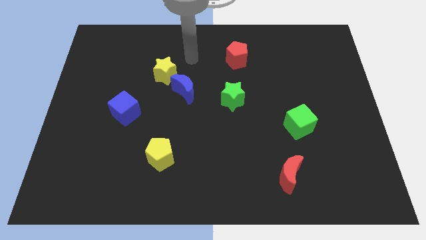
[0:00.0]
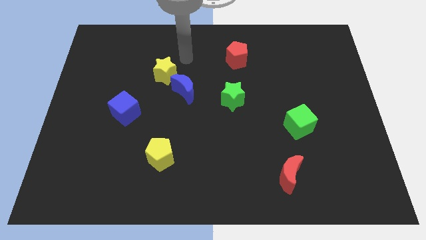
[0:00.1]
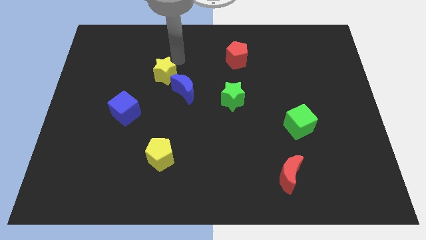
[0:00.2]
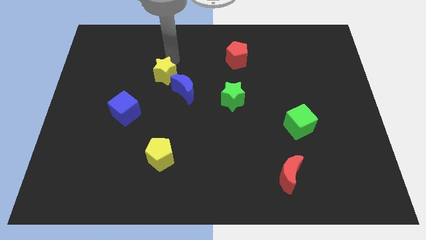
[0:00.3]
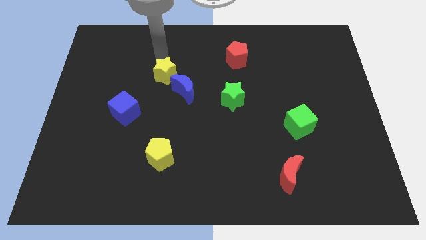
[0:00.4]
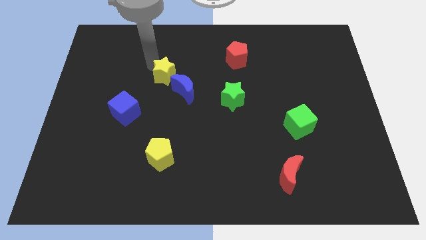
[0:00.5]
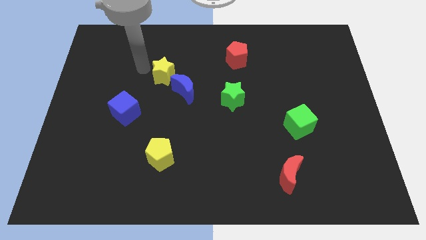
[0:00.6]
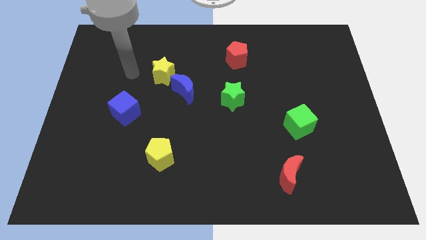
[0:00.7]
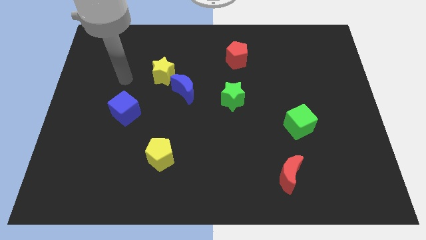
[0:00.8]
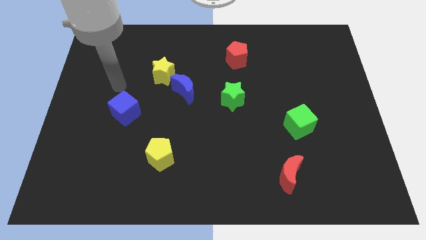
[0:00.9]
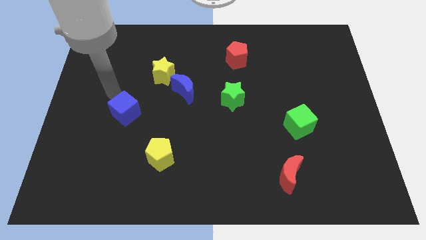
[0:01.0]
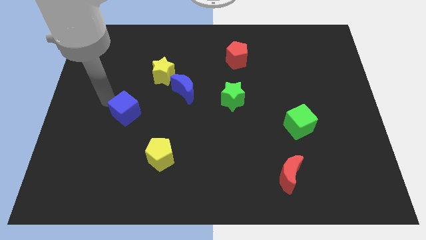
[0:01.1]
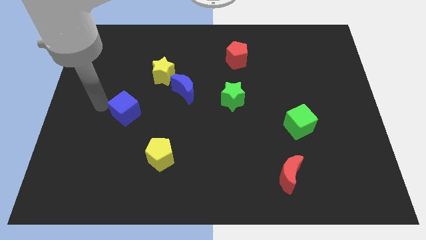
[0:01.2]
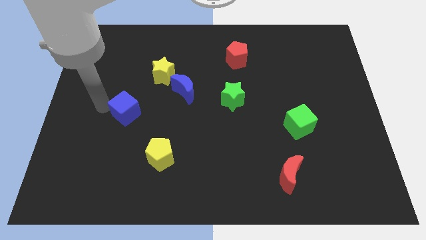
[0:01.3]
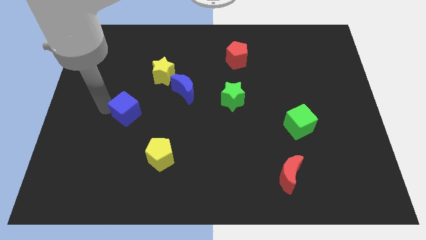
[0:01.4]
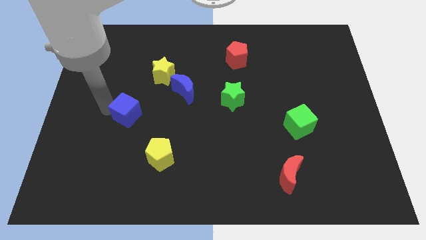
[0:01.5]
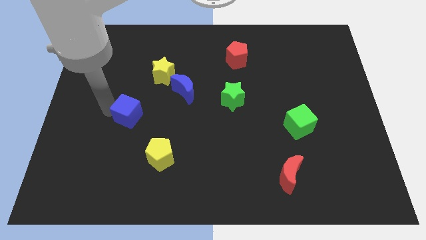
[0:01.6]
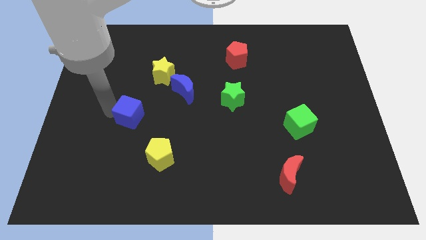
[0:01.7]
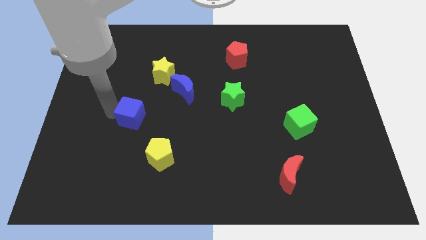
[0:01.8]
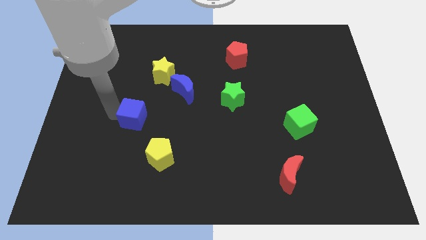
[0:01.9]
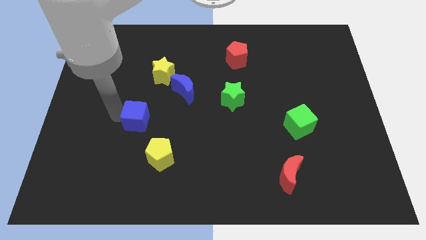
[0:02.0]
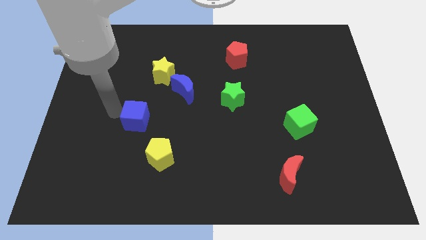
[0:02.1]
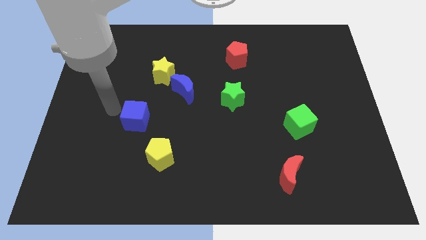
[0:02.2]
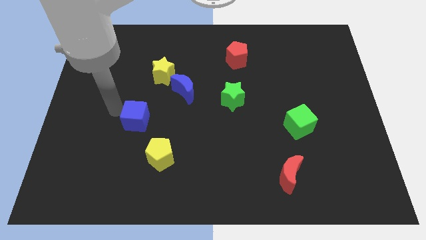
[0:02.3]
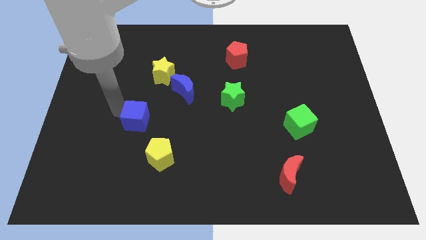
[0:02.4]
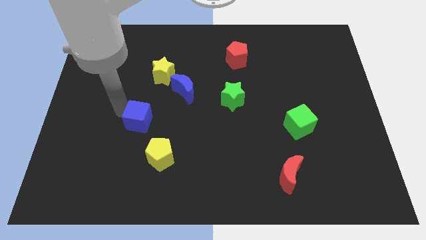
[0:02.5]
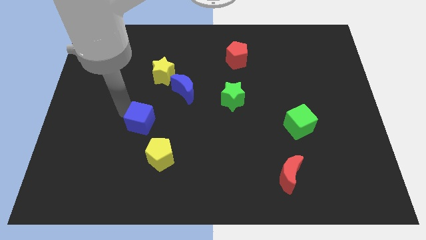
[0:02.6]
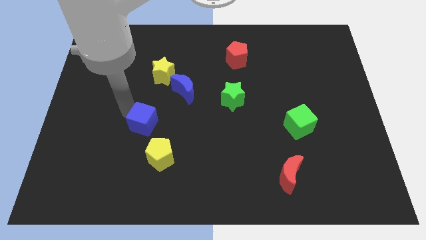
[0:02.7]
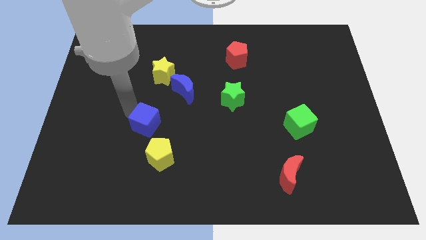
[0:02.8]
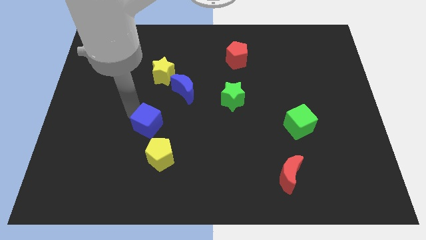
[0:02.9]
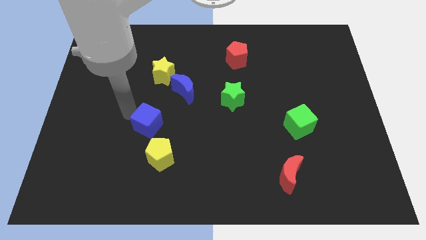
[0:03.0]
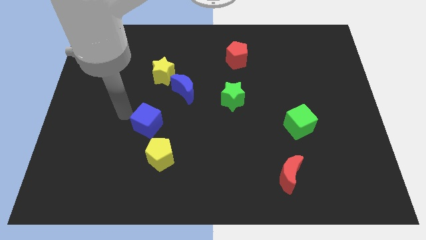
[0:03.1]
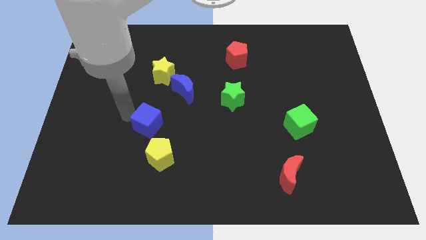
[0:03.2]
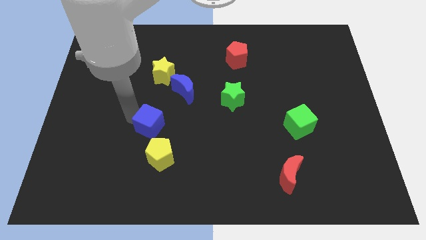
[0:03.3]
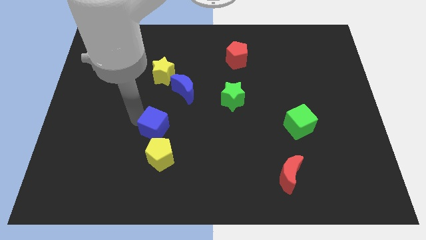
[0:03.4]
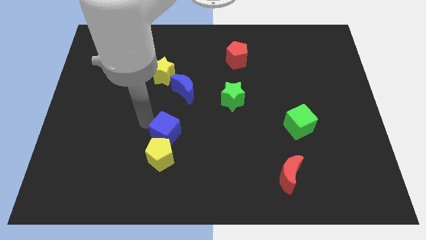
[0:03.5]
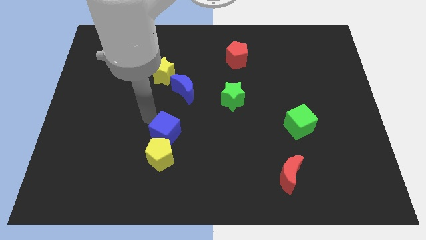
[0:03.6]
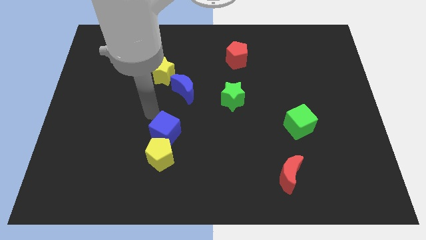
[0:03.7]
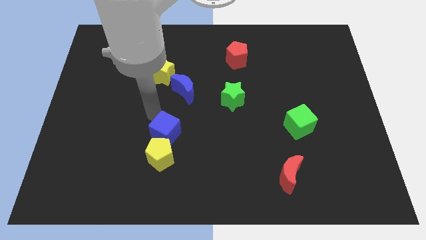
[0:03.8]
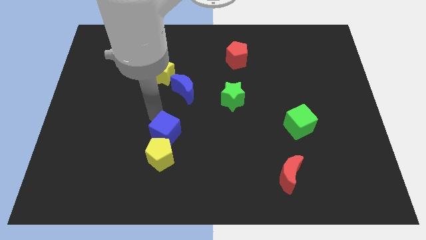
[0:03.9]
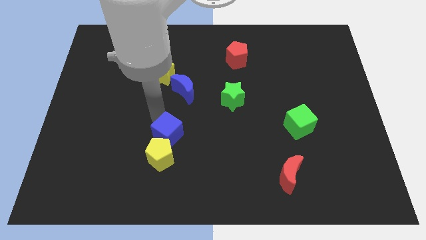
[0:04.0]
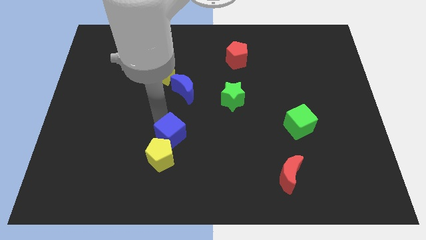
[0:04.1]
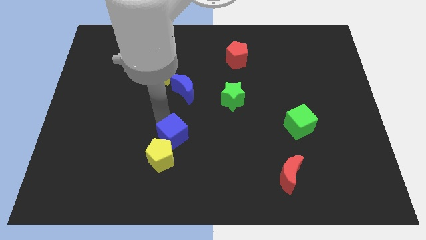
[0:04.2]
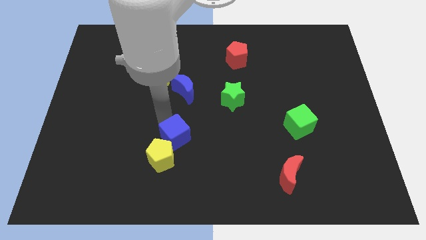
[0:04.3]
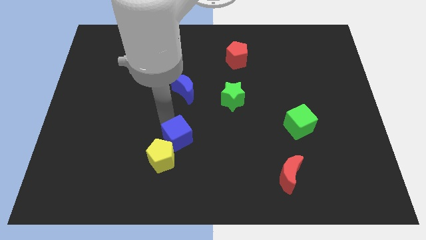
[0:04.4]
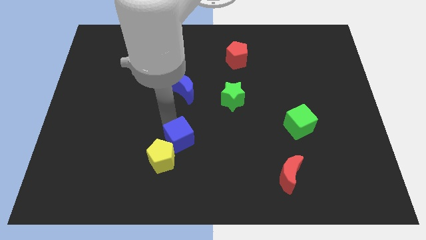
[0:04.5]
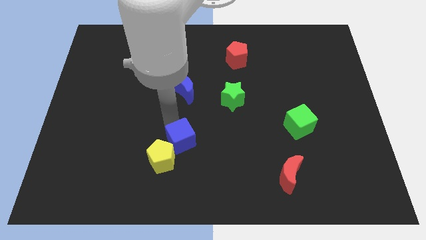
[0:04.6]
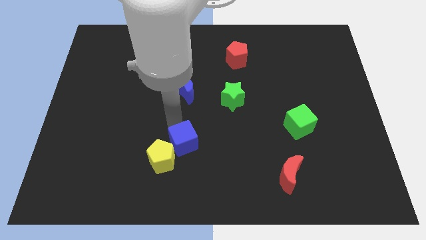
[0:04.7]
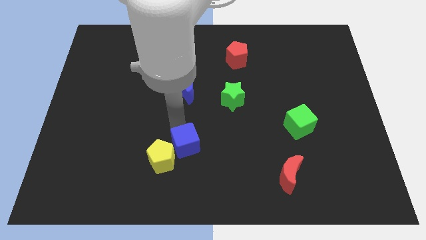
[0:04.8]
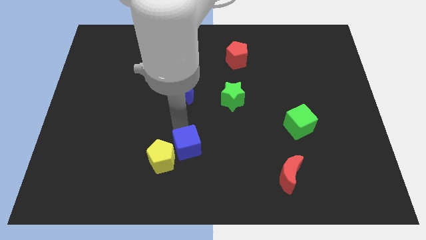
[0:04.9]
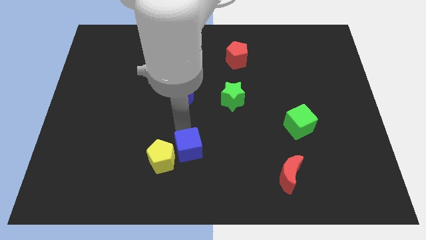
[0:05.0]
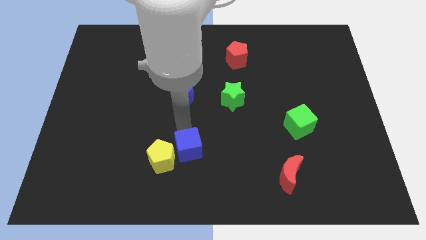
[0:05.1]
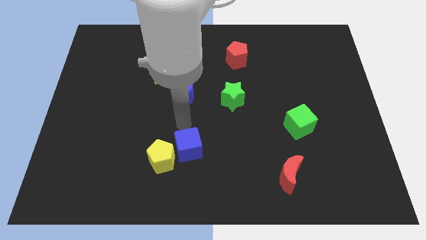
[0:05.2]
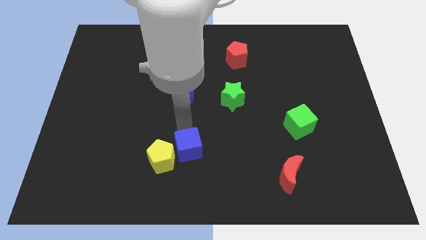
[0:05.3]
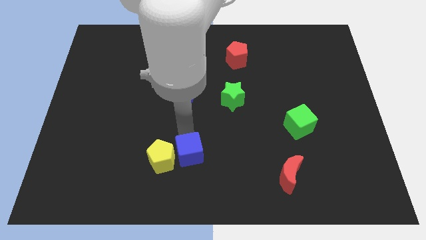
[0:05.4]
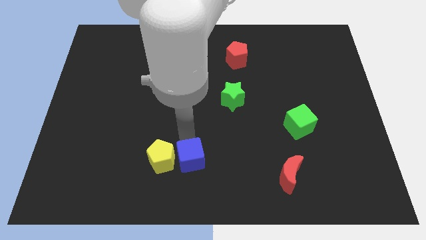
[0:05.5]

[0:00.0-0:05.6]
move the blue cube to the bottom side

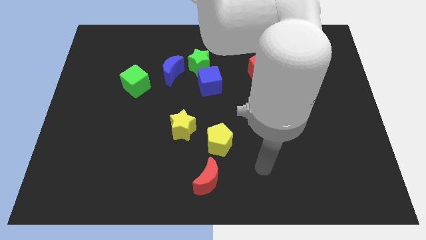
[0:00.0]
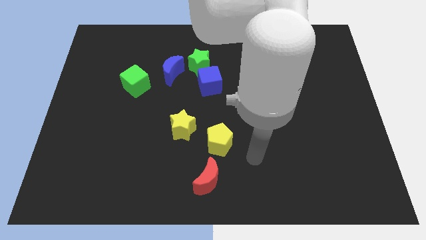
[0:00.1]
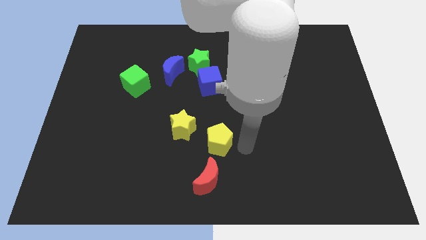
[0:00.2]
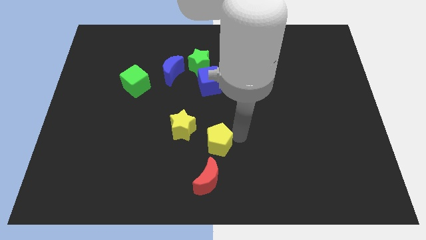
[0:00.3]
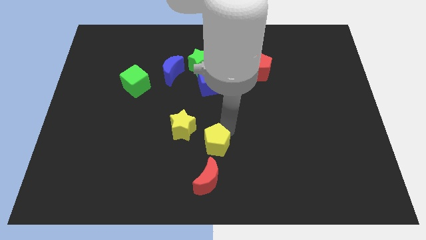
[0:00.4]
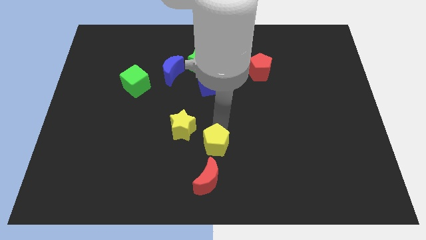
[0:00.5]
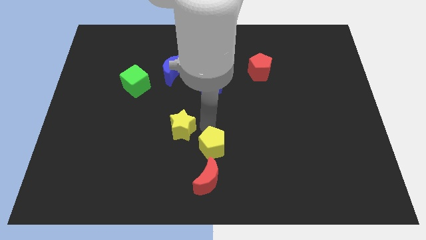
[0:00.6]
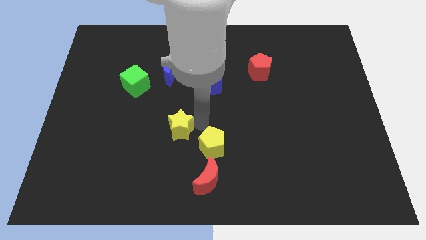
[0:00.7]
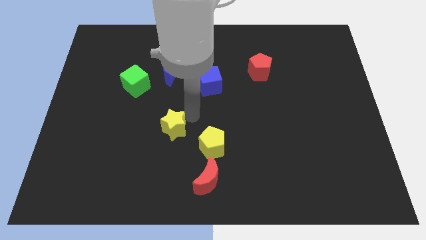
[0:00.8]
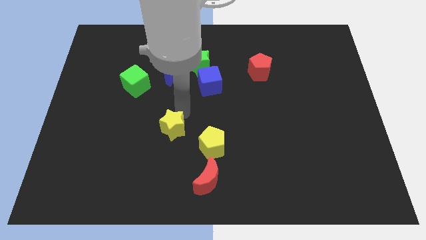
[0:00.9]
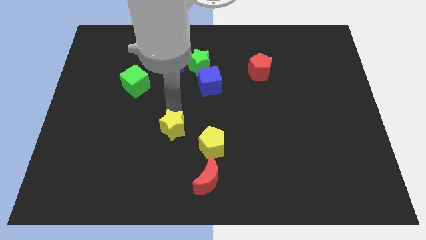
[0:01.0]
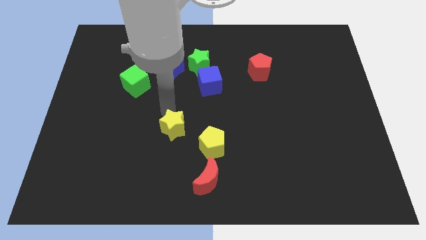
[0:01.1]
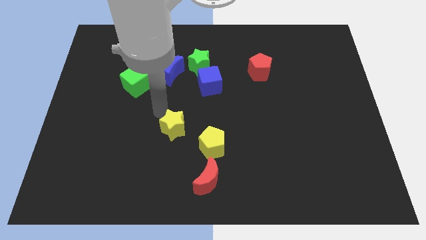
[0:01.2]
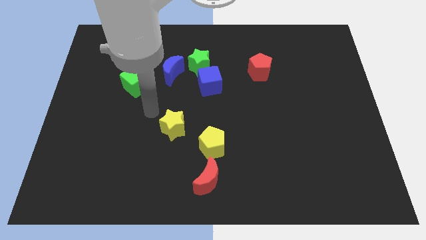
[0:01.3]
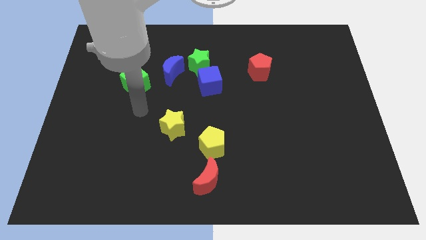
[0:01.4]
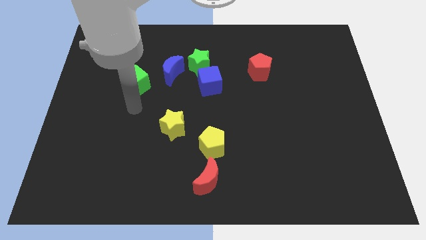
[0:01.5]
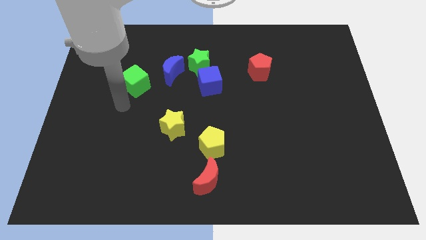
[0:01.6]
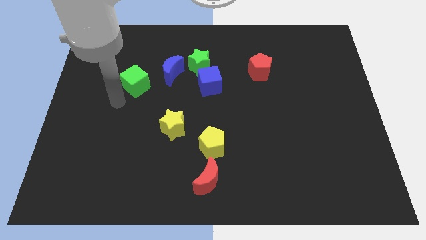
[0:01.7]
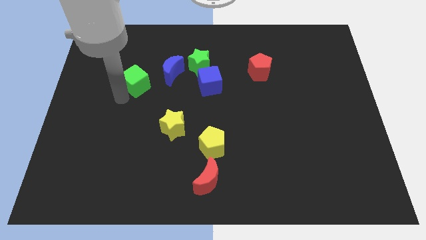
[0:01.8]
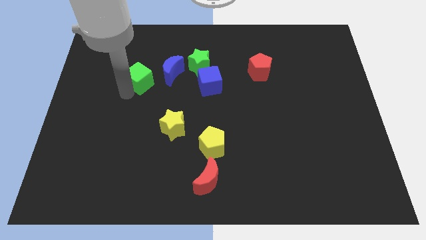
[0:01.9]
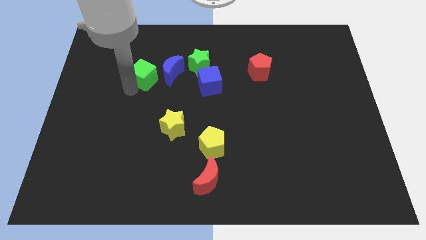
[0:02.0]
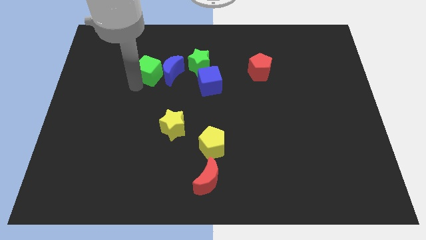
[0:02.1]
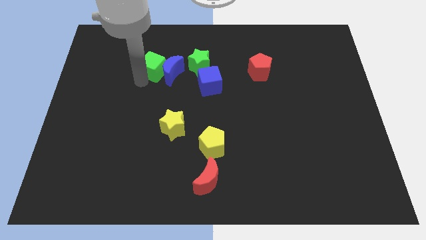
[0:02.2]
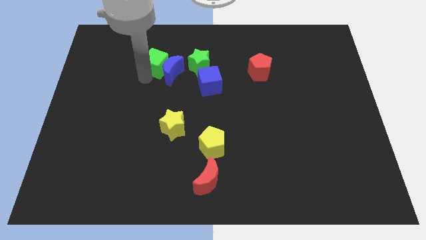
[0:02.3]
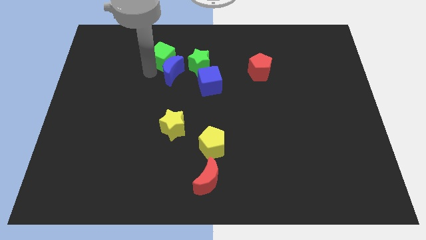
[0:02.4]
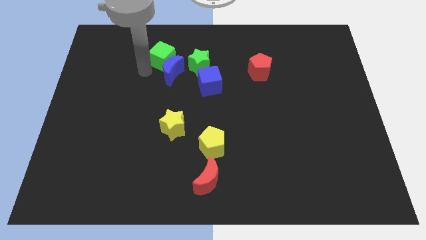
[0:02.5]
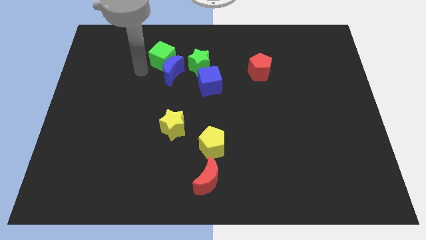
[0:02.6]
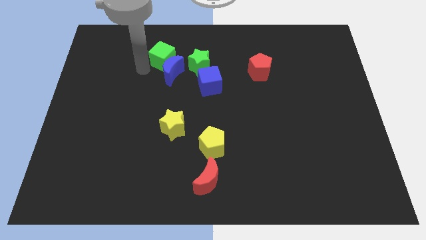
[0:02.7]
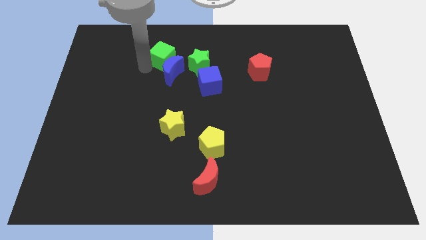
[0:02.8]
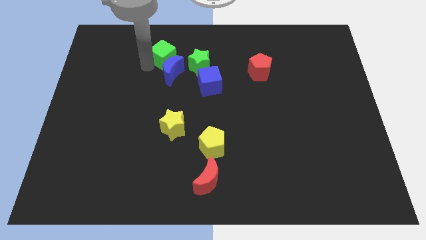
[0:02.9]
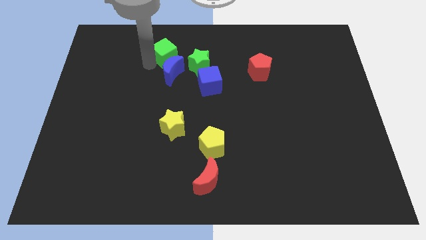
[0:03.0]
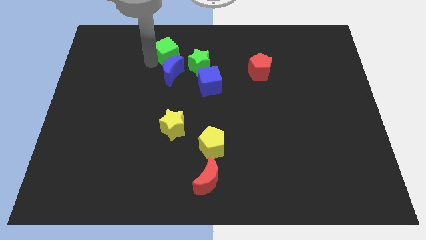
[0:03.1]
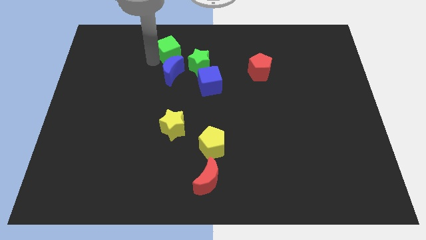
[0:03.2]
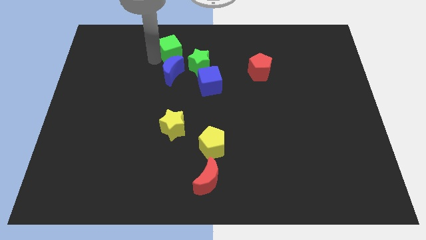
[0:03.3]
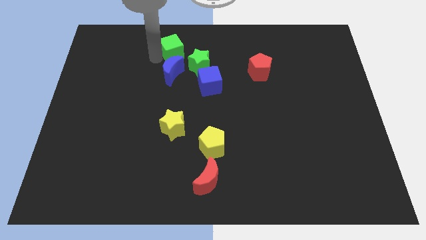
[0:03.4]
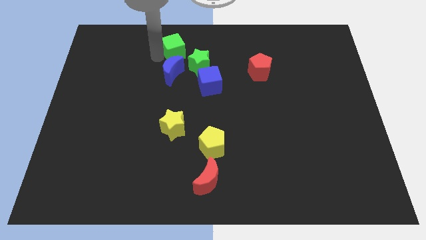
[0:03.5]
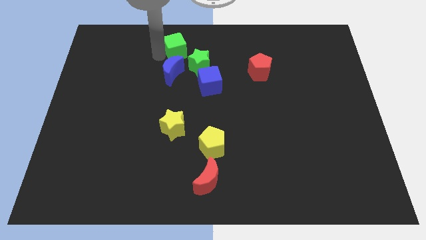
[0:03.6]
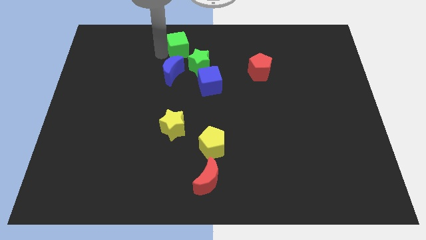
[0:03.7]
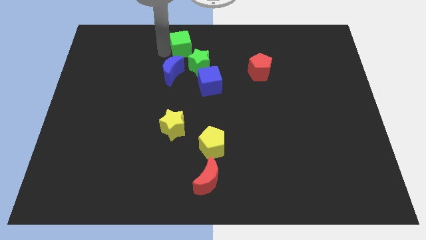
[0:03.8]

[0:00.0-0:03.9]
move the green cube to the top side
